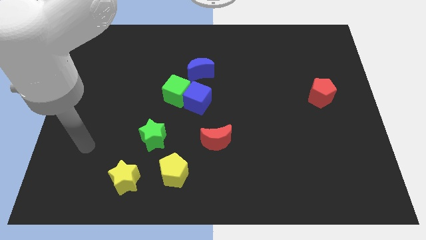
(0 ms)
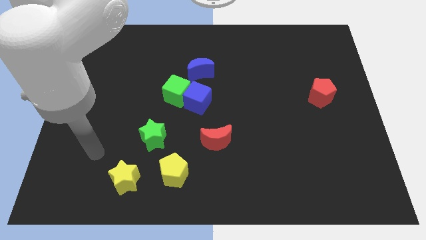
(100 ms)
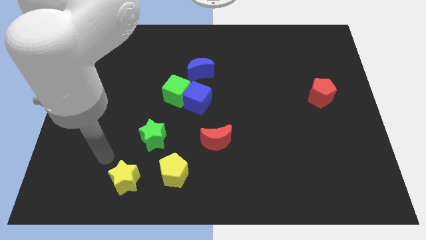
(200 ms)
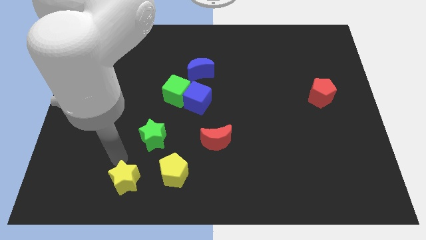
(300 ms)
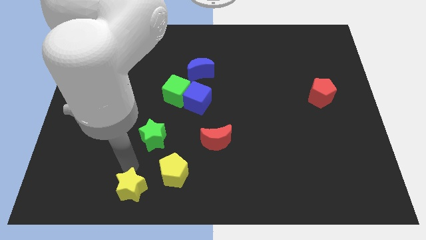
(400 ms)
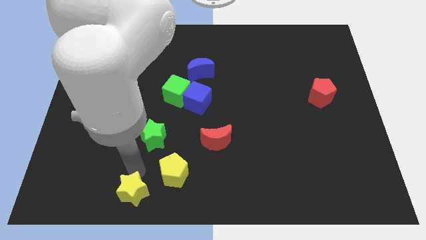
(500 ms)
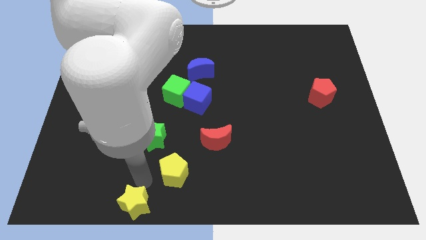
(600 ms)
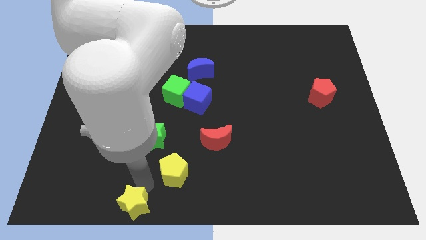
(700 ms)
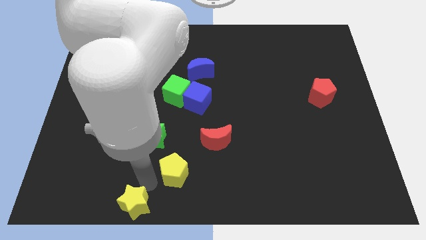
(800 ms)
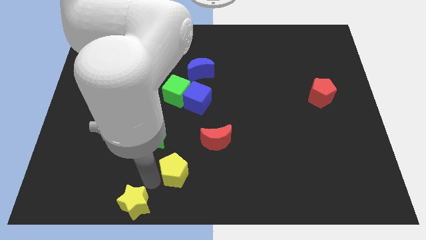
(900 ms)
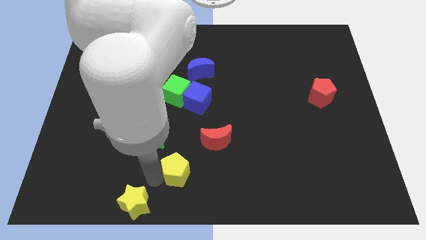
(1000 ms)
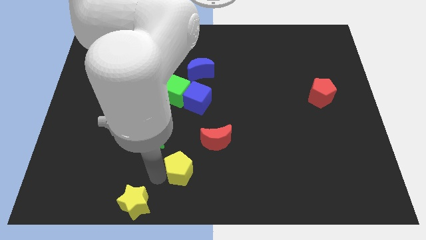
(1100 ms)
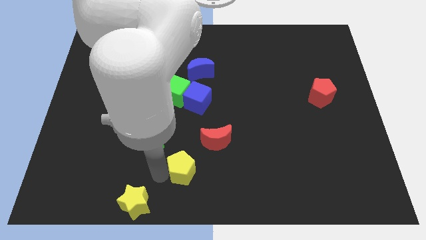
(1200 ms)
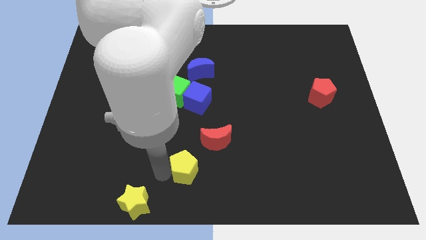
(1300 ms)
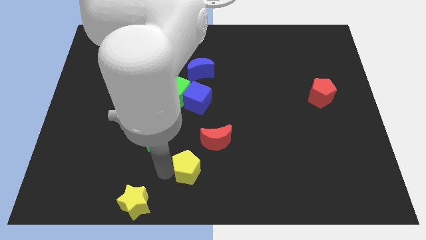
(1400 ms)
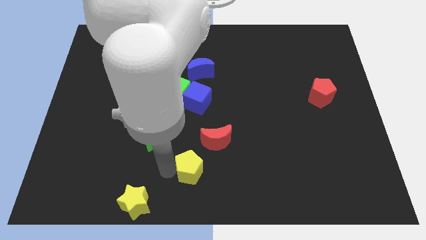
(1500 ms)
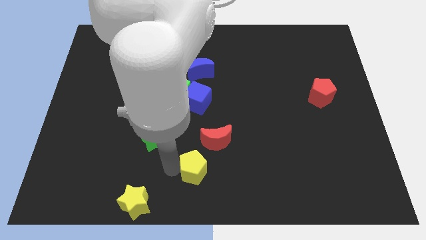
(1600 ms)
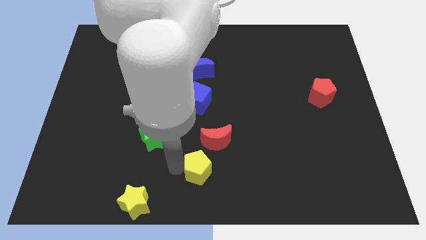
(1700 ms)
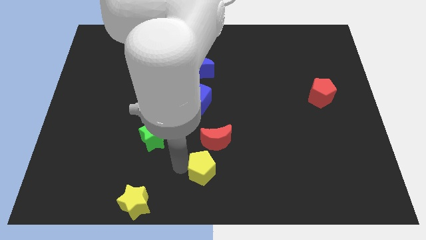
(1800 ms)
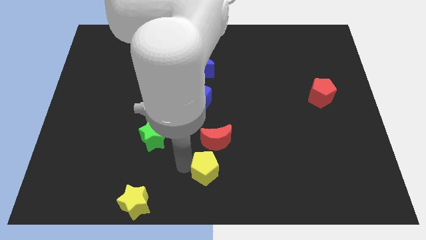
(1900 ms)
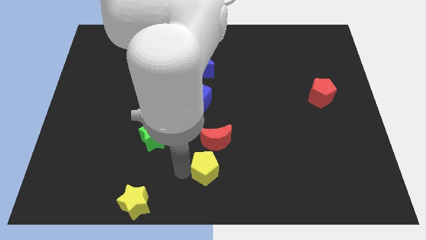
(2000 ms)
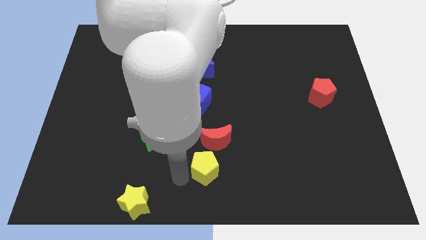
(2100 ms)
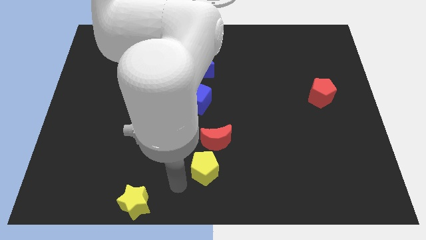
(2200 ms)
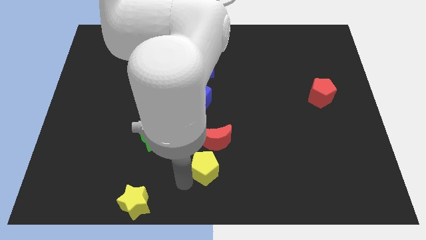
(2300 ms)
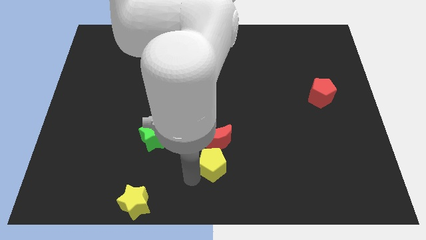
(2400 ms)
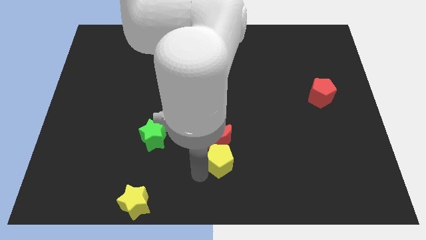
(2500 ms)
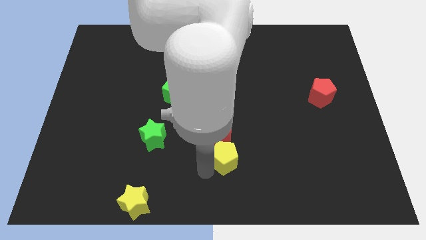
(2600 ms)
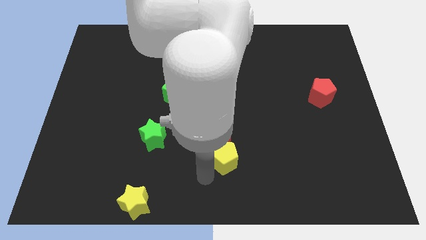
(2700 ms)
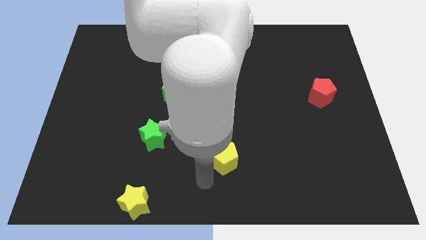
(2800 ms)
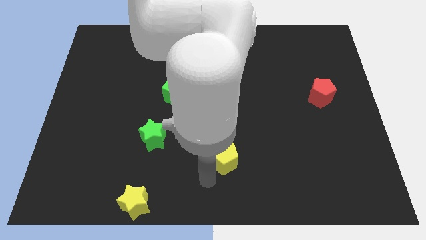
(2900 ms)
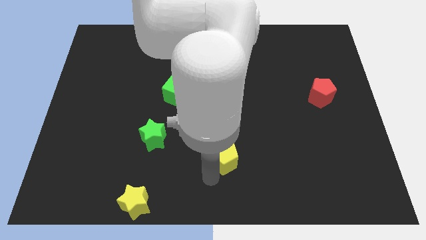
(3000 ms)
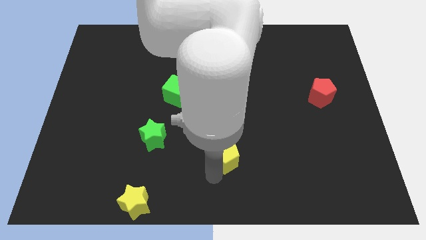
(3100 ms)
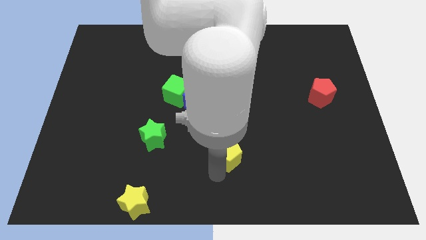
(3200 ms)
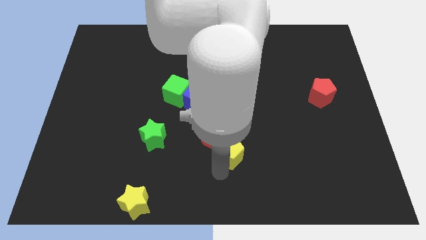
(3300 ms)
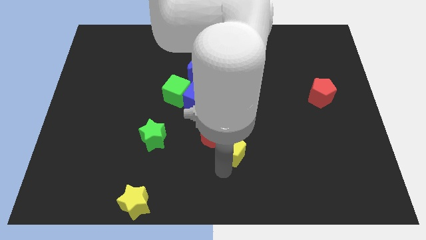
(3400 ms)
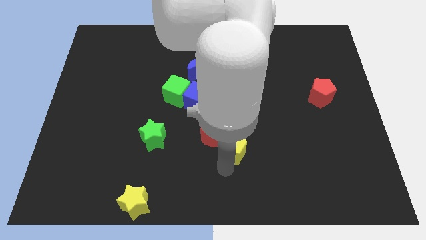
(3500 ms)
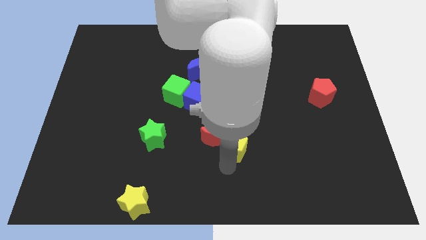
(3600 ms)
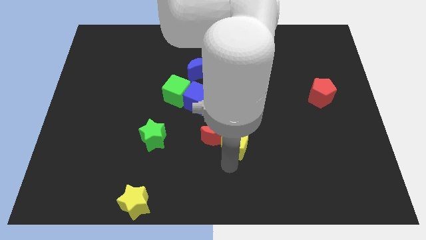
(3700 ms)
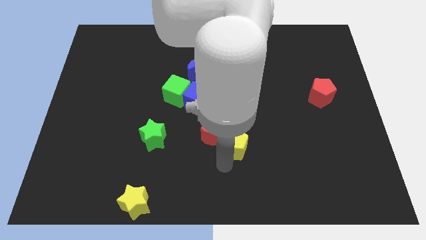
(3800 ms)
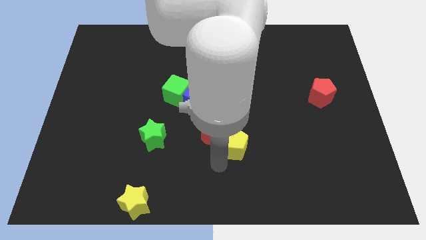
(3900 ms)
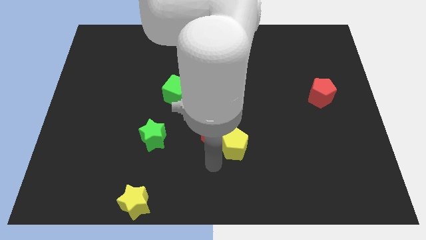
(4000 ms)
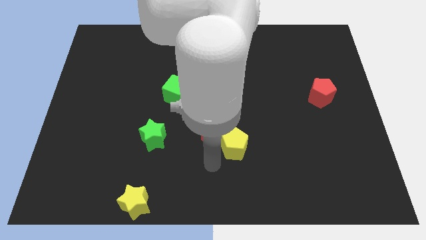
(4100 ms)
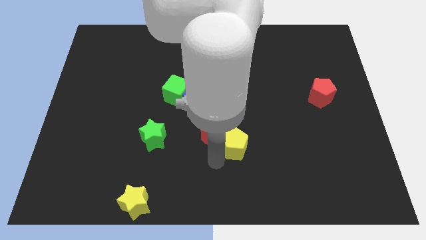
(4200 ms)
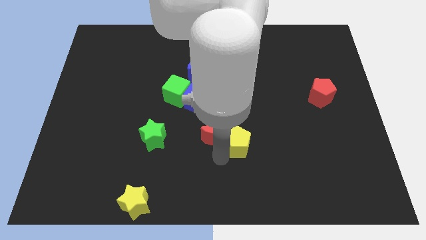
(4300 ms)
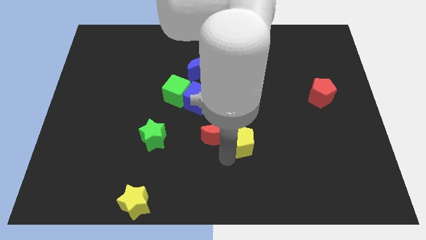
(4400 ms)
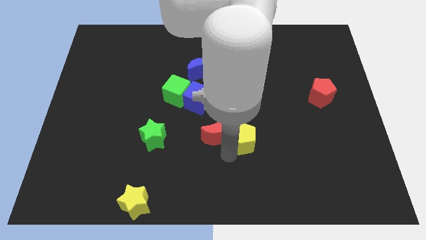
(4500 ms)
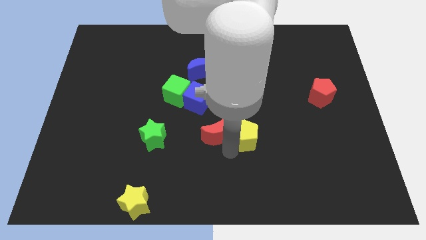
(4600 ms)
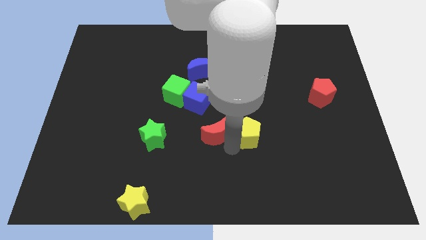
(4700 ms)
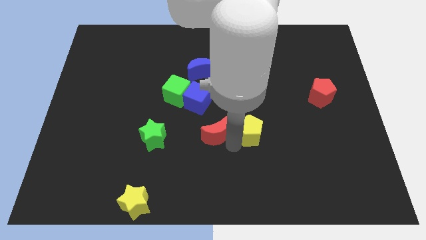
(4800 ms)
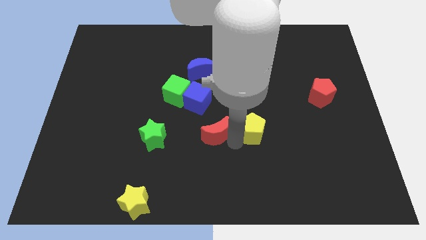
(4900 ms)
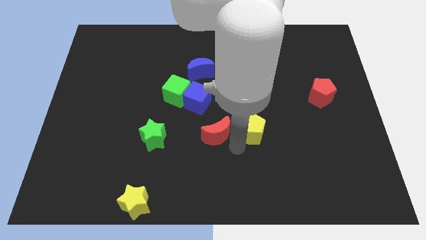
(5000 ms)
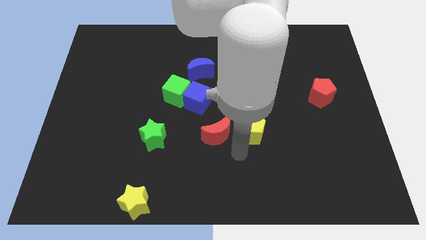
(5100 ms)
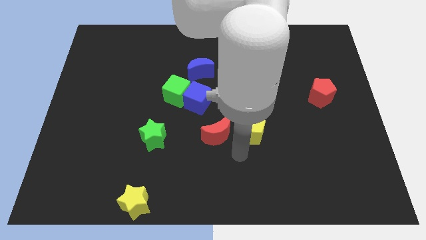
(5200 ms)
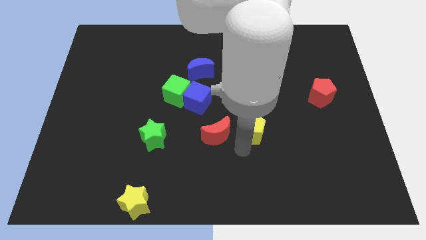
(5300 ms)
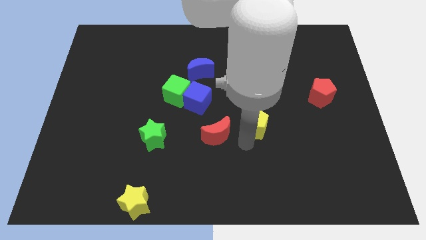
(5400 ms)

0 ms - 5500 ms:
push the yellow pentagon diagonally upwards and right

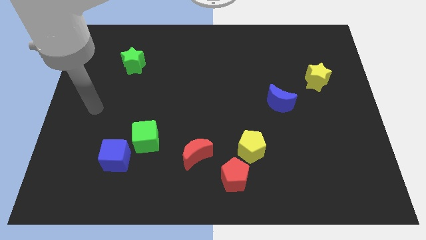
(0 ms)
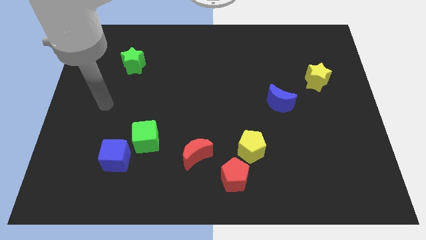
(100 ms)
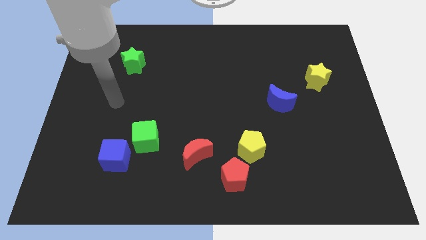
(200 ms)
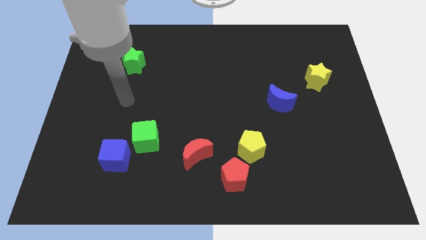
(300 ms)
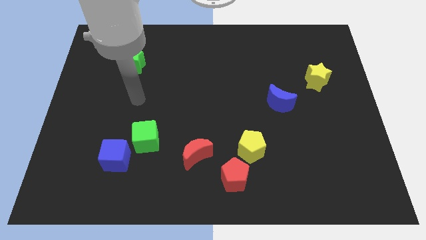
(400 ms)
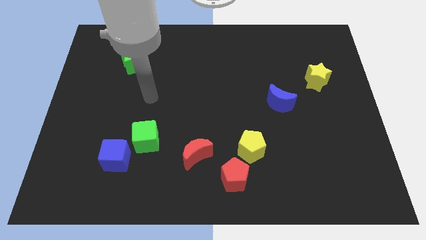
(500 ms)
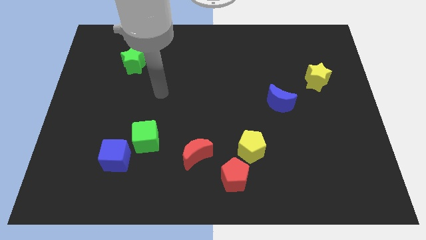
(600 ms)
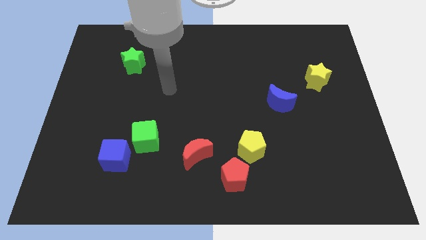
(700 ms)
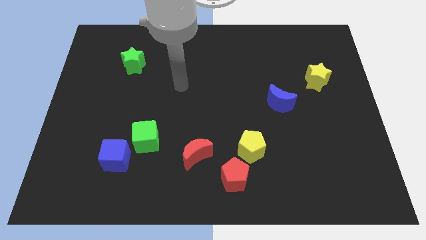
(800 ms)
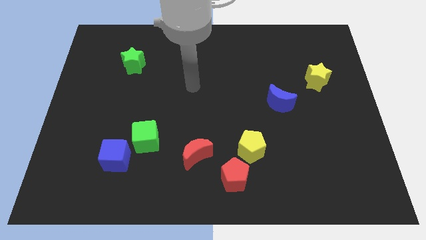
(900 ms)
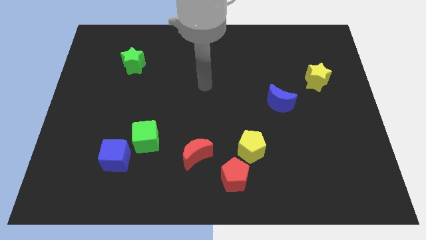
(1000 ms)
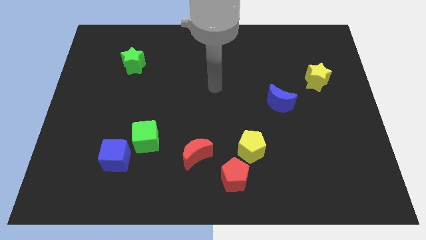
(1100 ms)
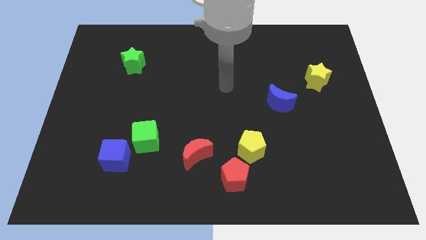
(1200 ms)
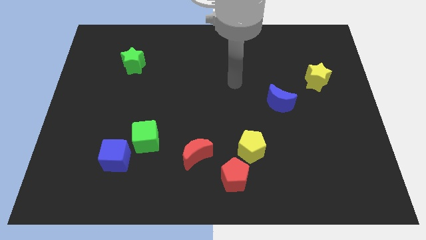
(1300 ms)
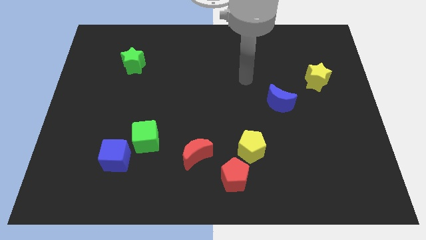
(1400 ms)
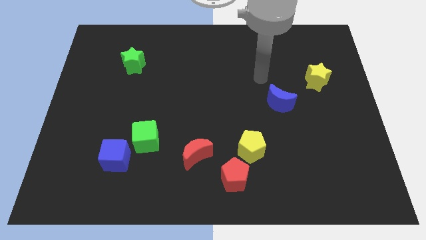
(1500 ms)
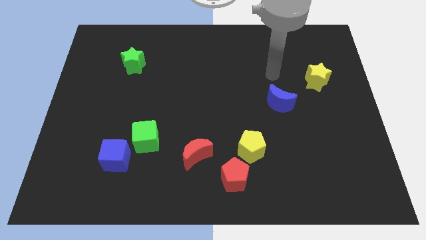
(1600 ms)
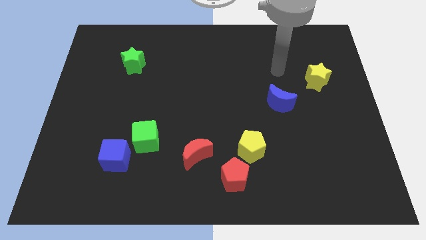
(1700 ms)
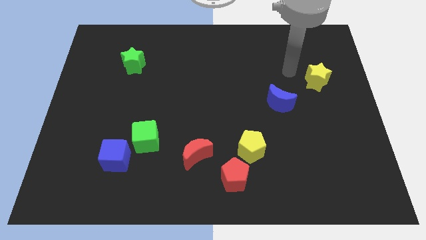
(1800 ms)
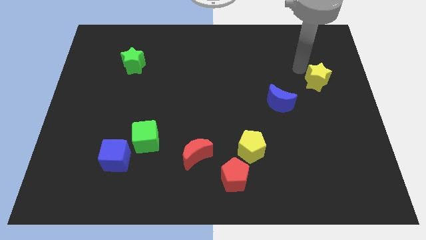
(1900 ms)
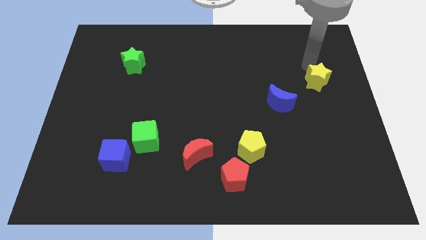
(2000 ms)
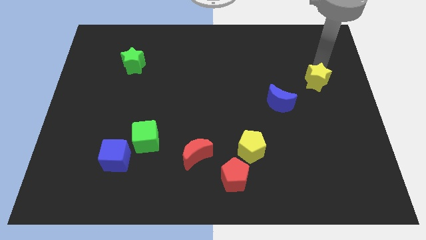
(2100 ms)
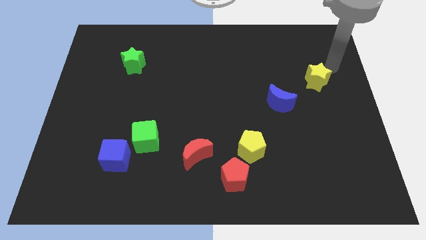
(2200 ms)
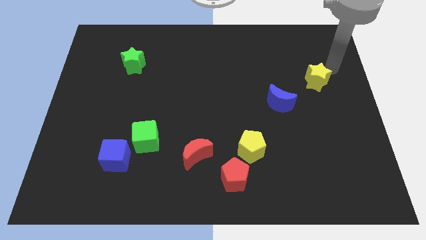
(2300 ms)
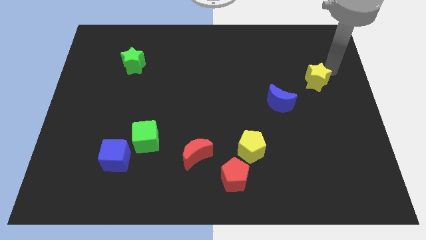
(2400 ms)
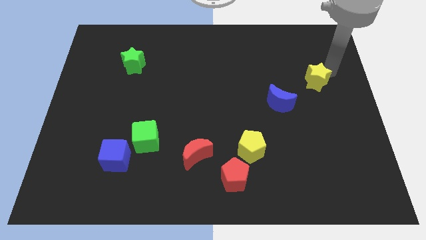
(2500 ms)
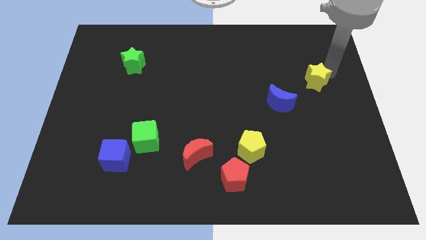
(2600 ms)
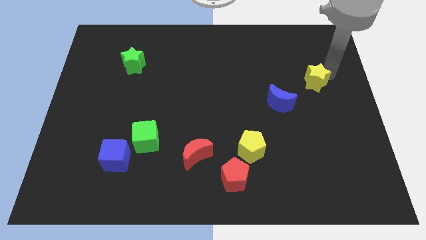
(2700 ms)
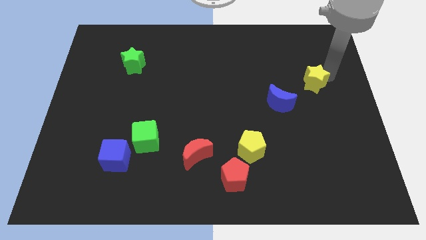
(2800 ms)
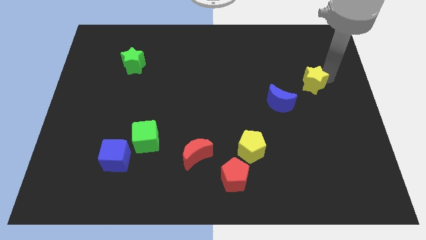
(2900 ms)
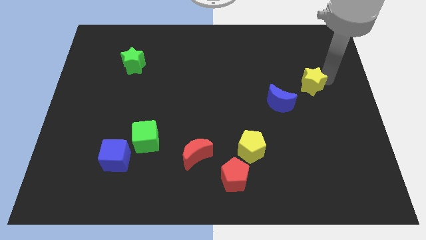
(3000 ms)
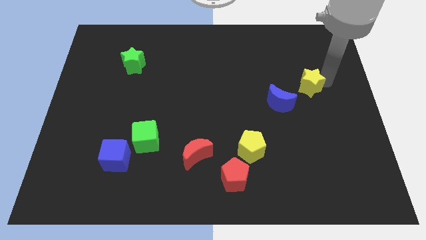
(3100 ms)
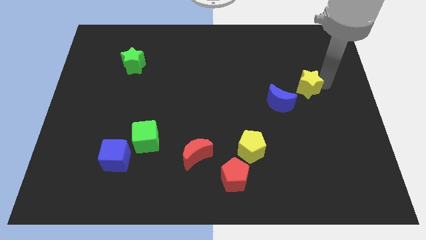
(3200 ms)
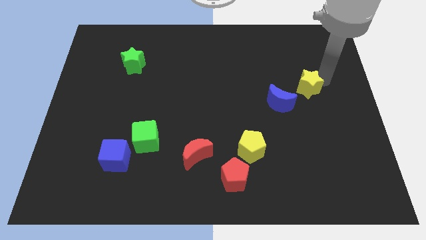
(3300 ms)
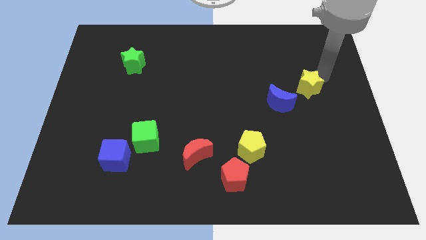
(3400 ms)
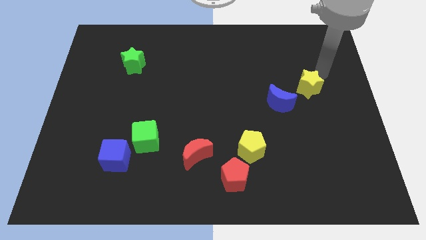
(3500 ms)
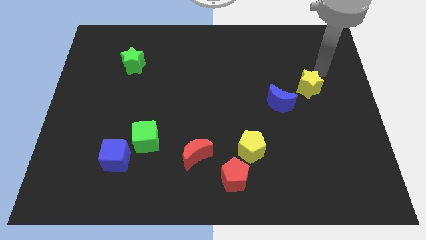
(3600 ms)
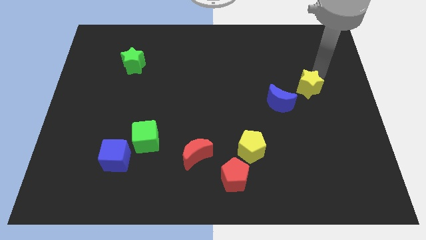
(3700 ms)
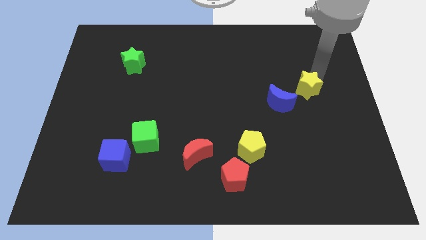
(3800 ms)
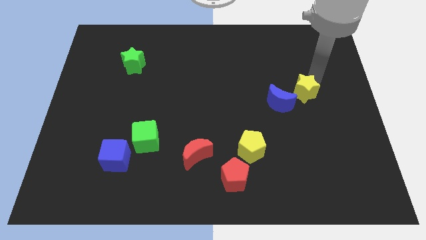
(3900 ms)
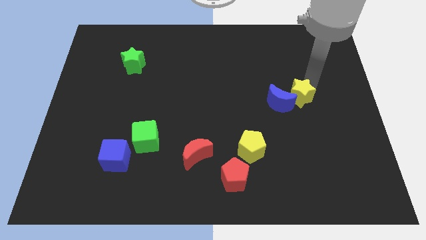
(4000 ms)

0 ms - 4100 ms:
push the yellow star down and left diagonally slightly
